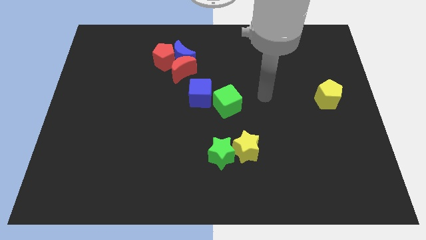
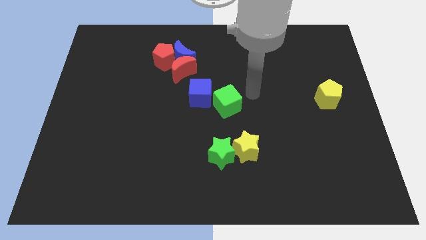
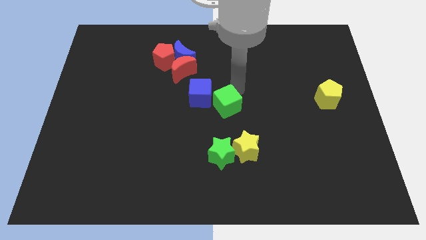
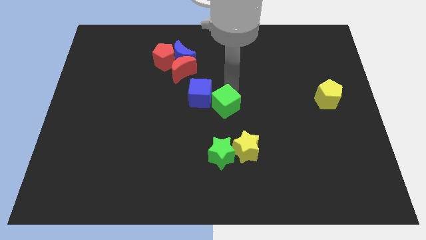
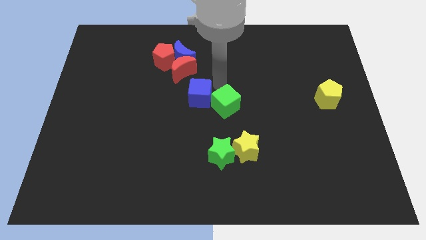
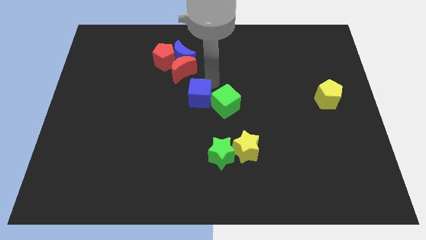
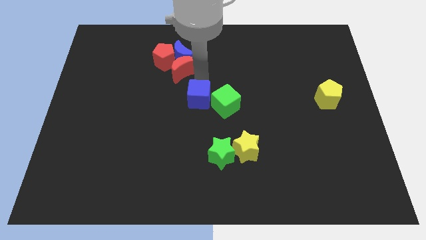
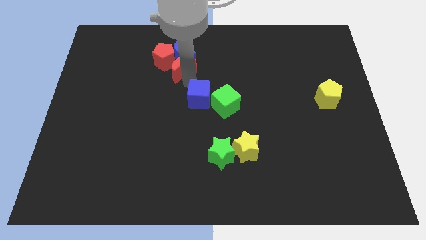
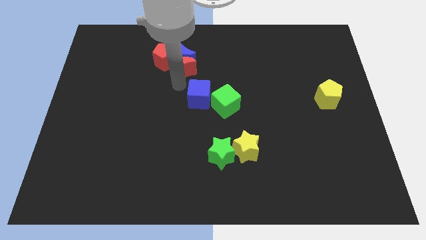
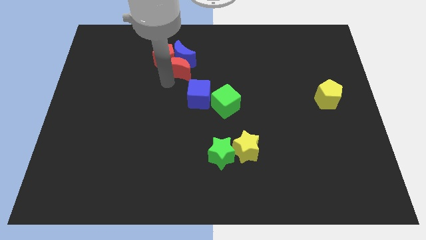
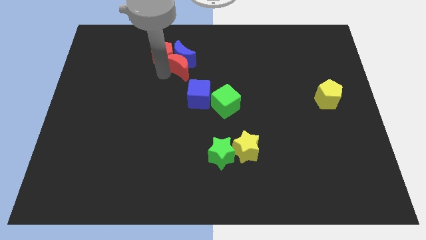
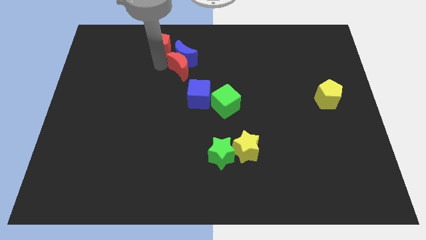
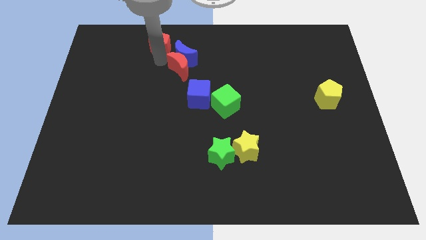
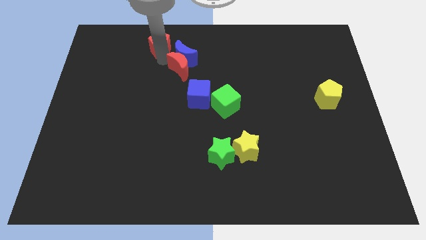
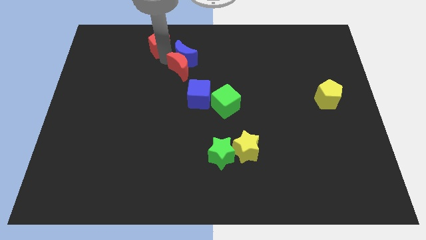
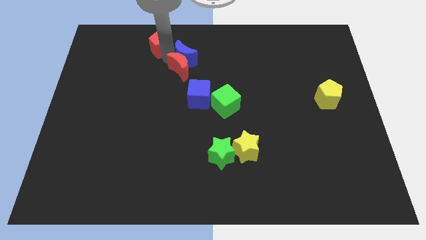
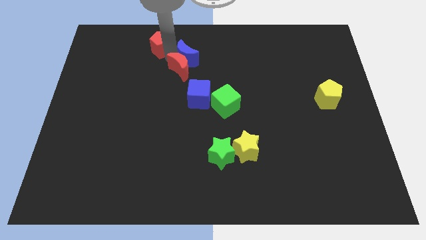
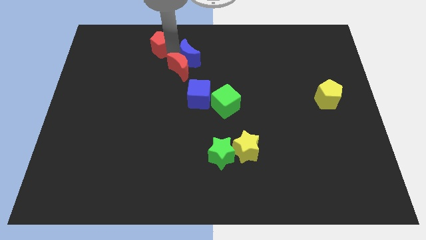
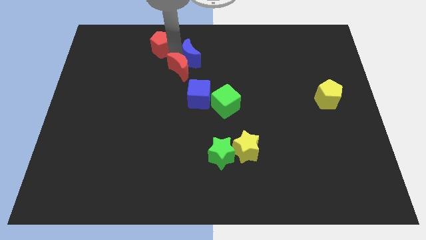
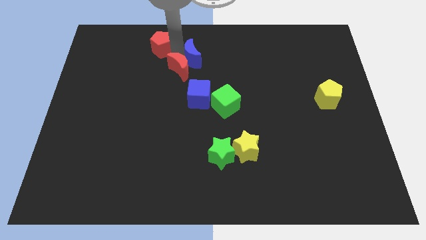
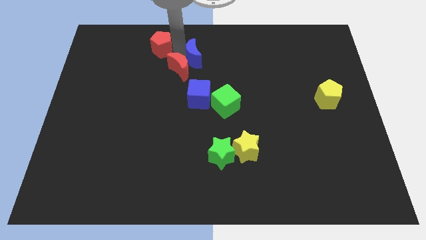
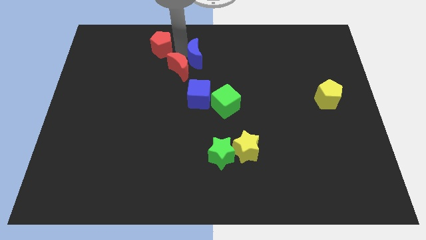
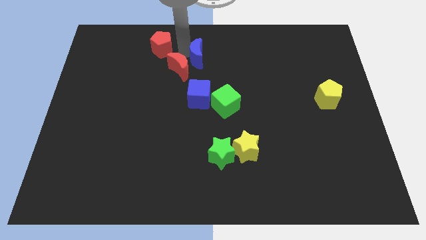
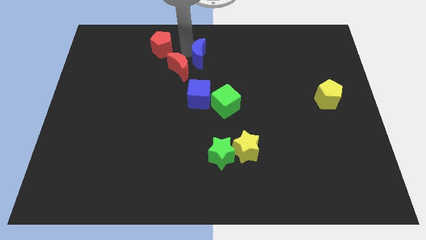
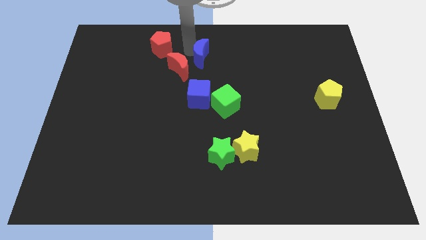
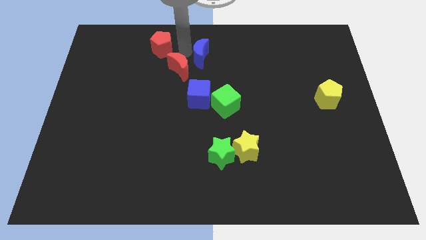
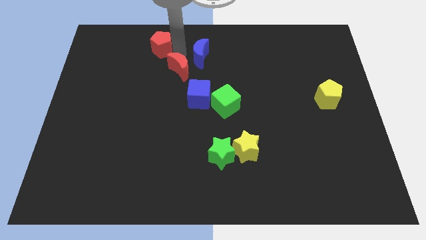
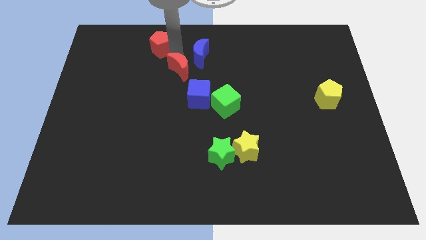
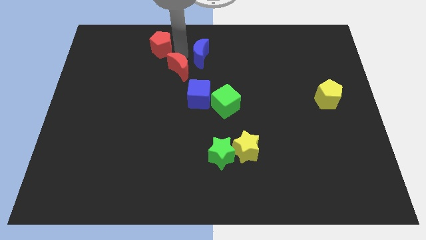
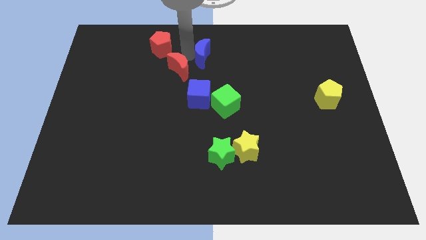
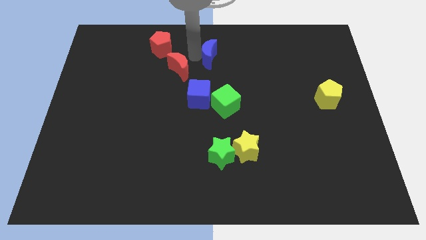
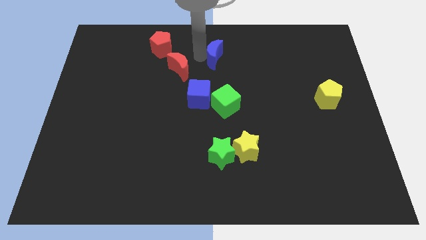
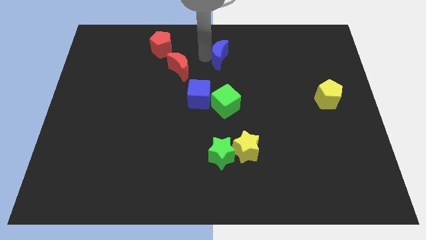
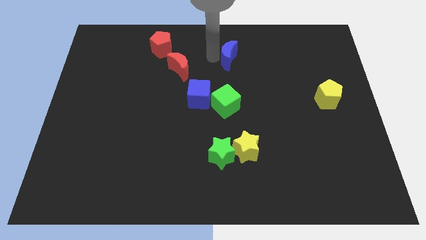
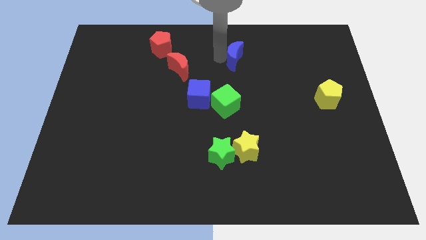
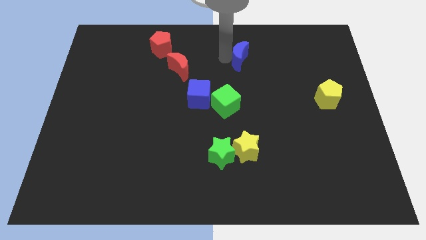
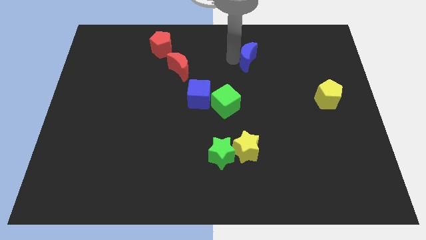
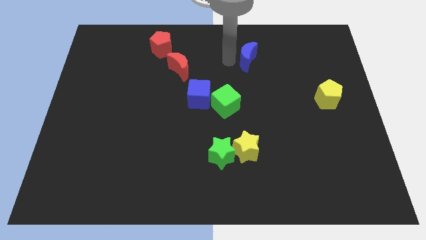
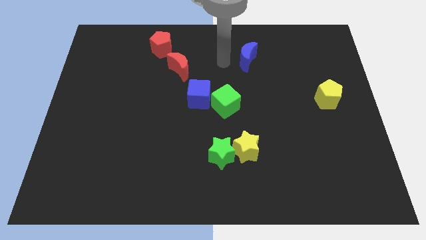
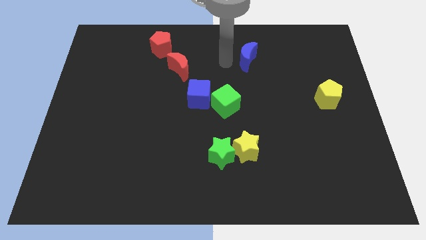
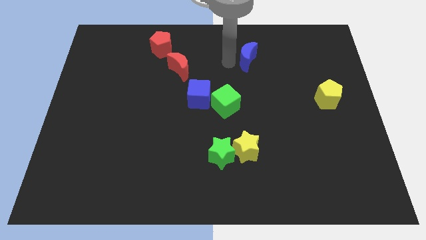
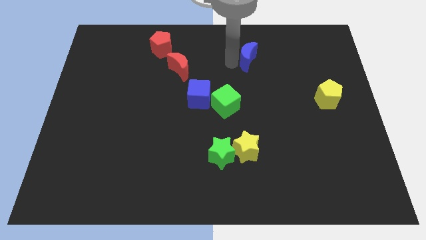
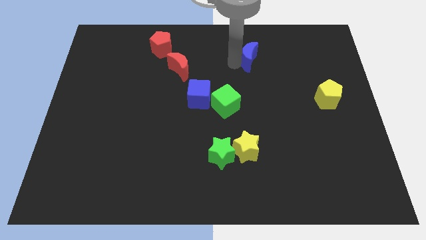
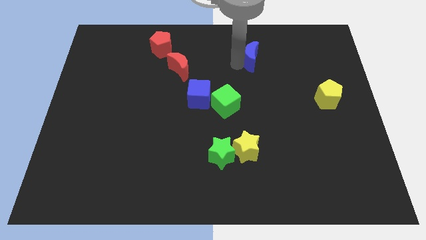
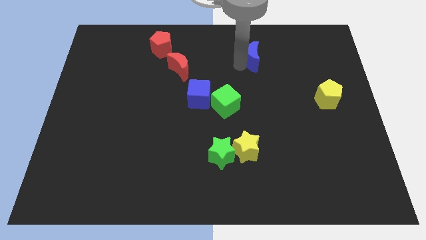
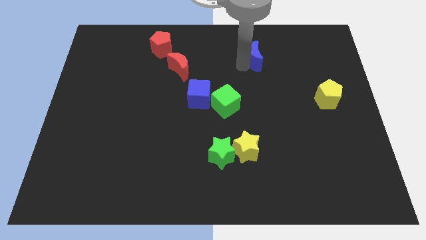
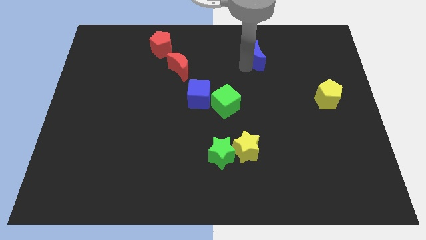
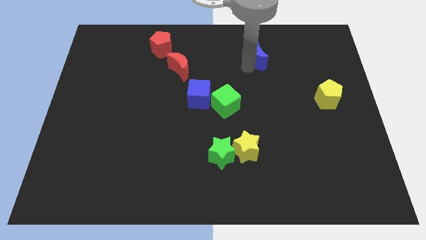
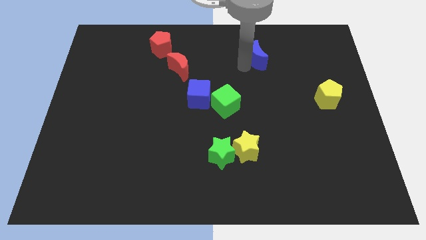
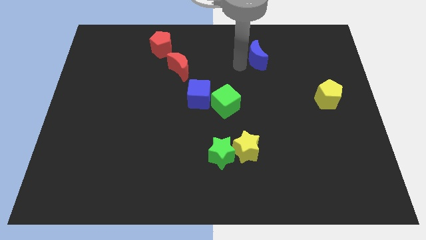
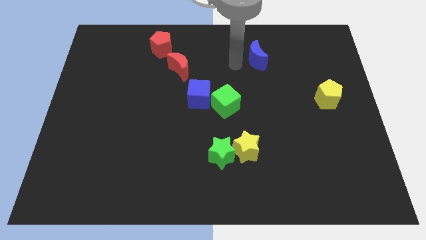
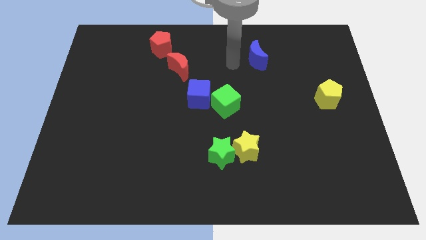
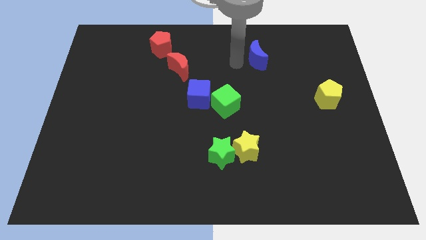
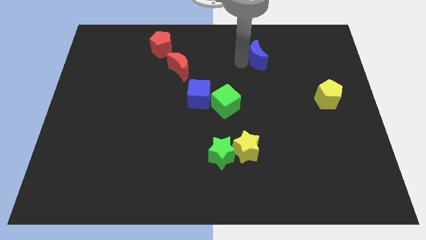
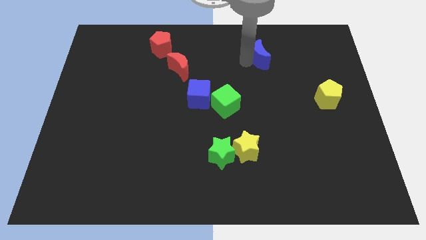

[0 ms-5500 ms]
slide the blue moon to the right

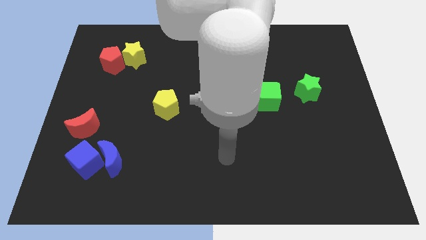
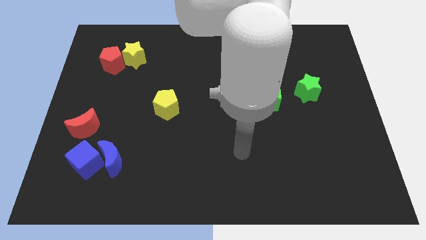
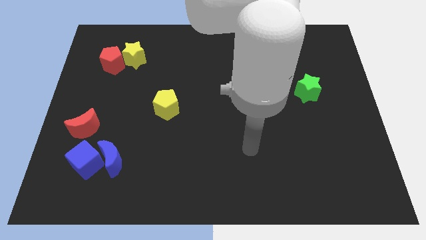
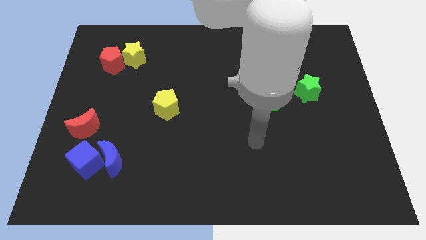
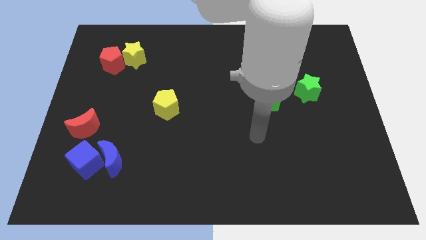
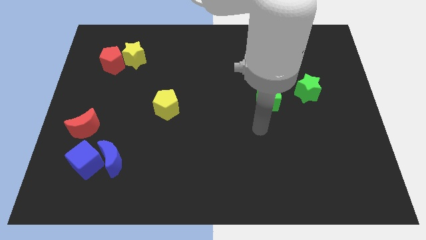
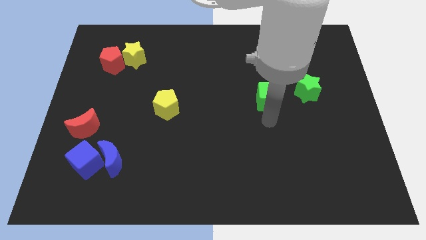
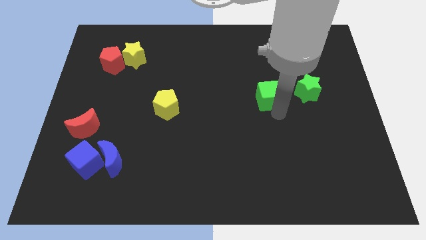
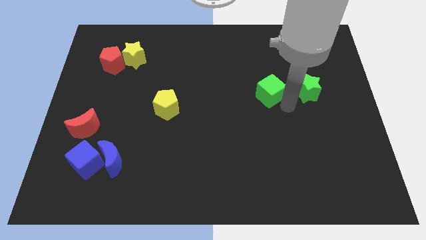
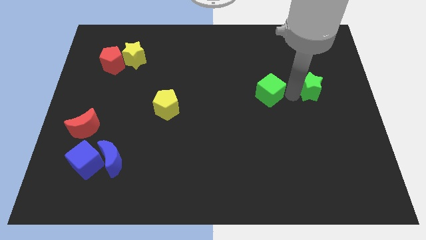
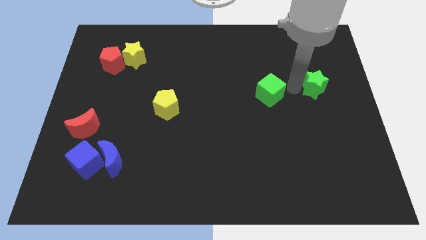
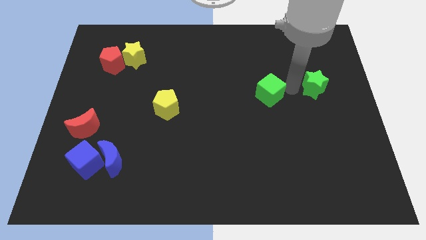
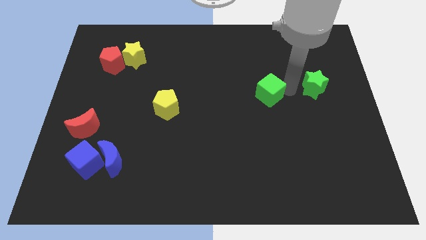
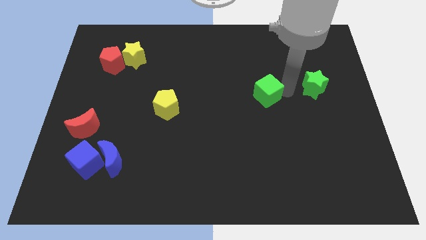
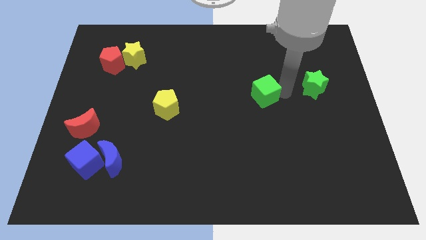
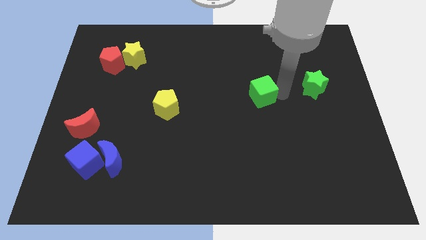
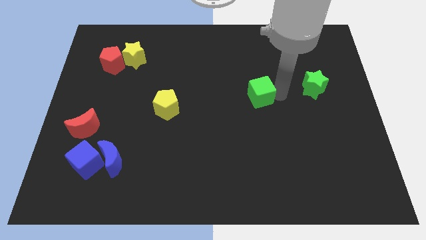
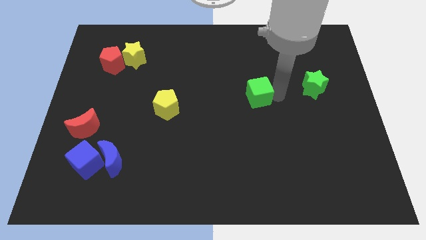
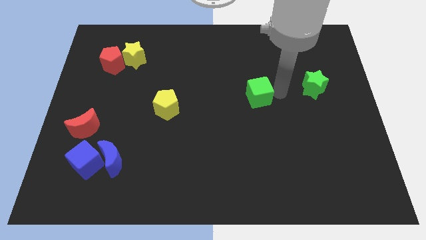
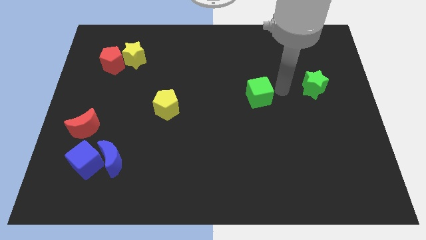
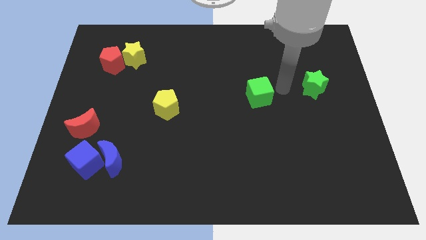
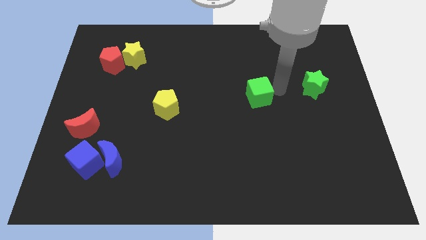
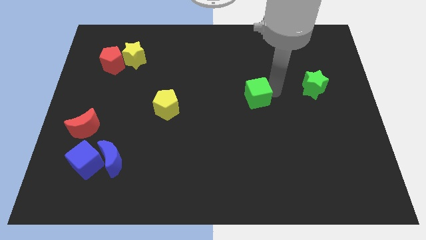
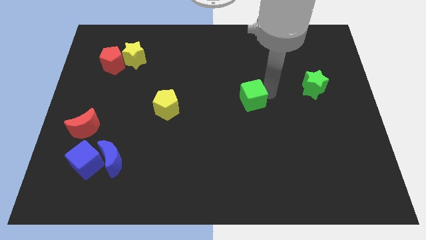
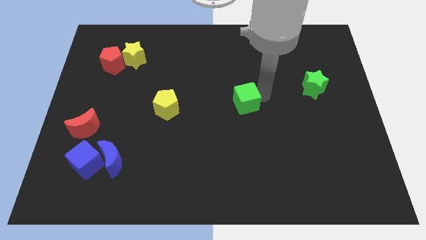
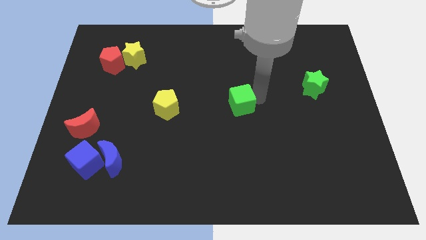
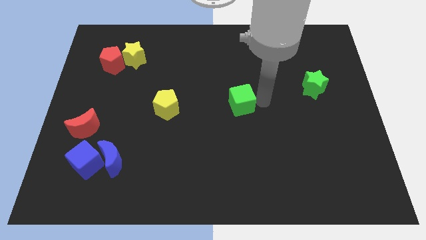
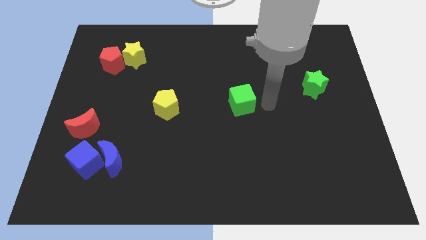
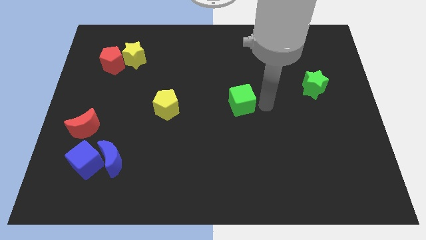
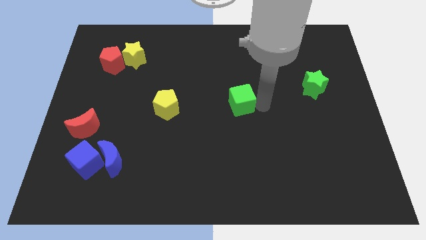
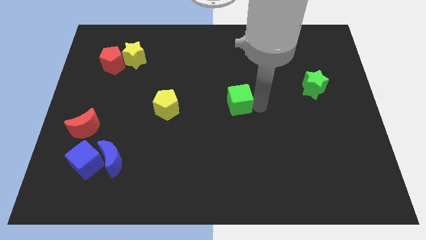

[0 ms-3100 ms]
slightly push the green cube left
